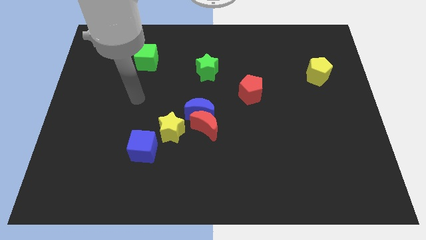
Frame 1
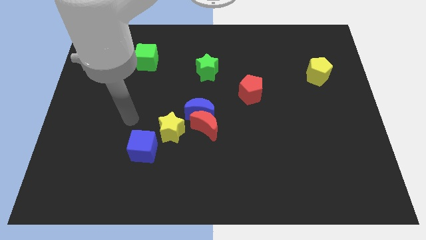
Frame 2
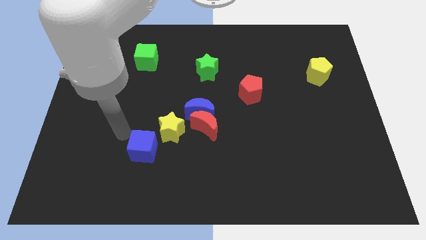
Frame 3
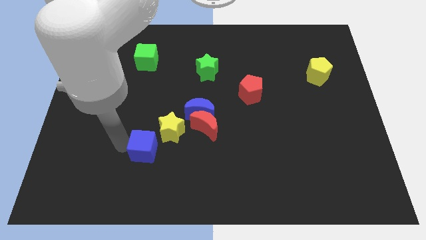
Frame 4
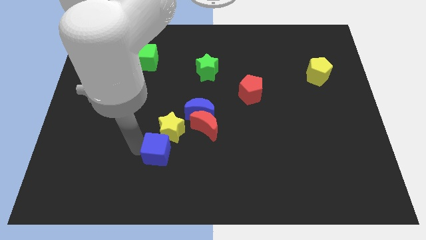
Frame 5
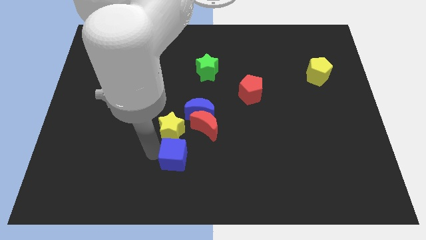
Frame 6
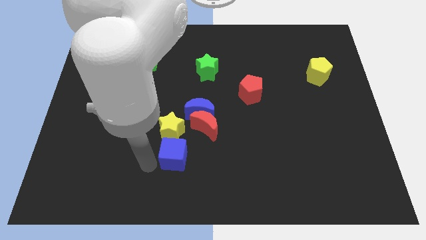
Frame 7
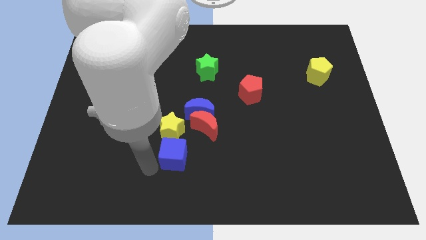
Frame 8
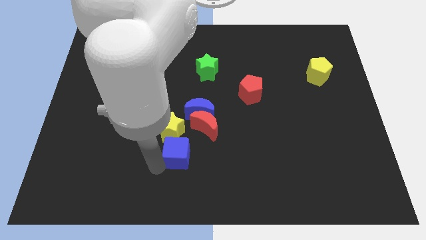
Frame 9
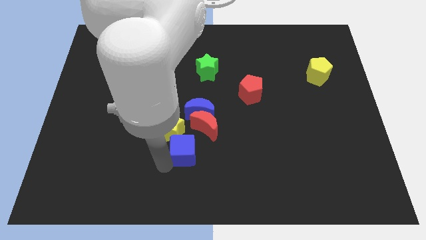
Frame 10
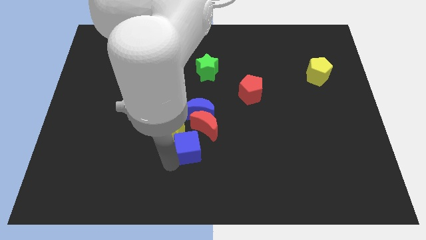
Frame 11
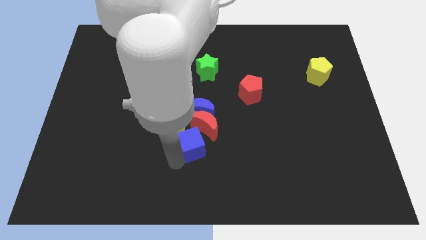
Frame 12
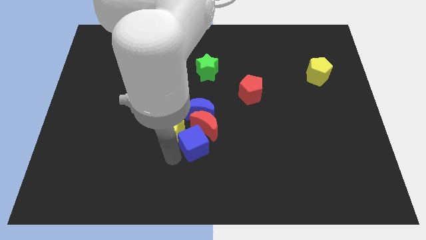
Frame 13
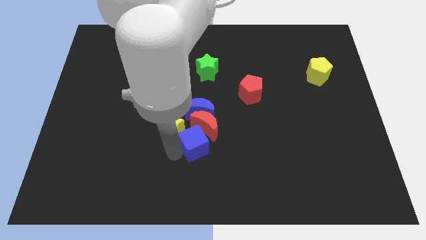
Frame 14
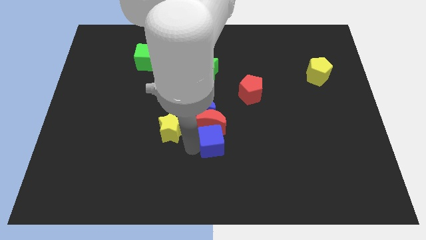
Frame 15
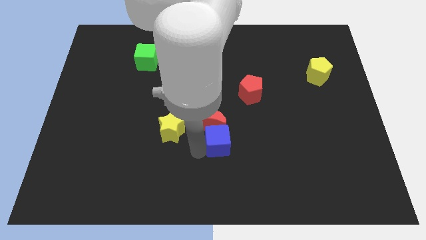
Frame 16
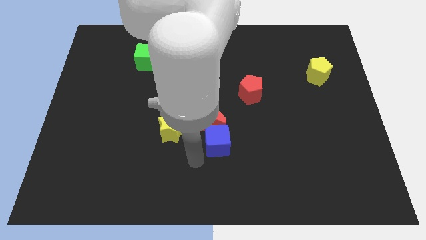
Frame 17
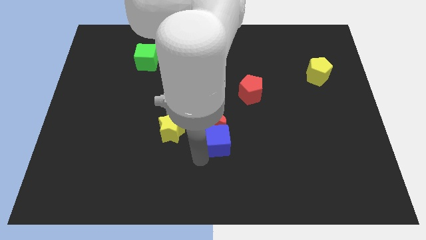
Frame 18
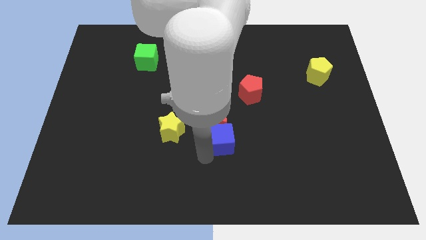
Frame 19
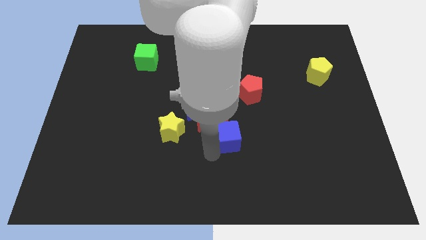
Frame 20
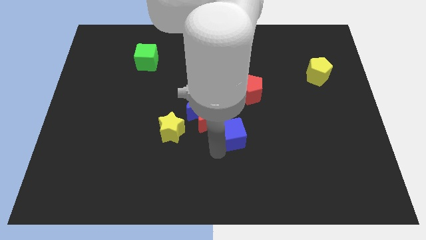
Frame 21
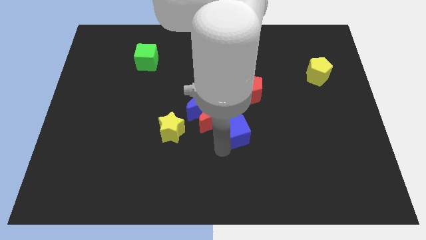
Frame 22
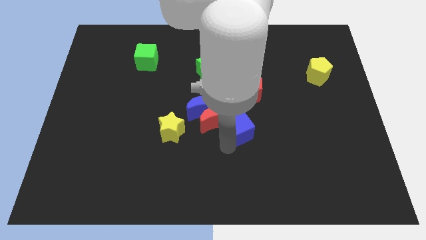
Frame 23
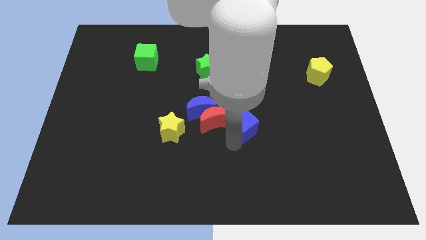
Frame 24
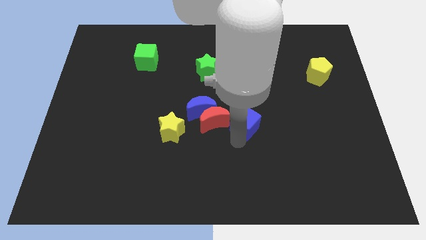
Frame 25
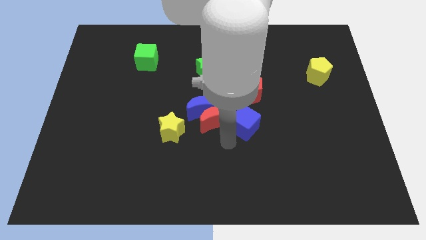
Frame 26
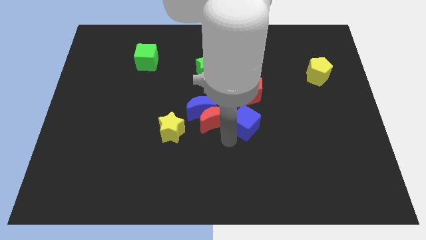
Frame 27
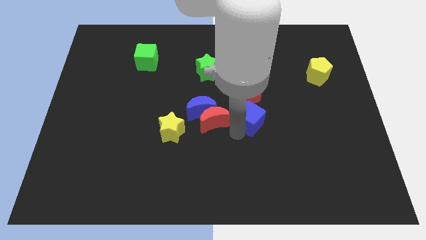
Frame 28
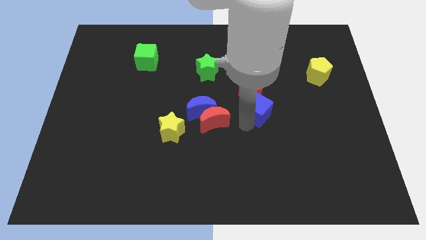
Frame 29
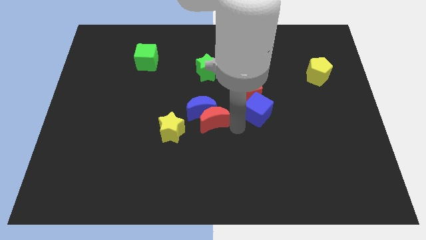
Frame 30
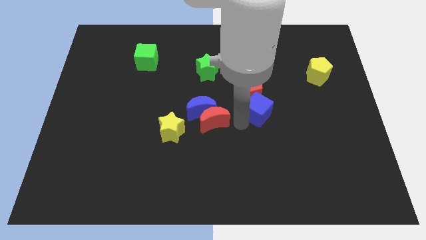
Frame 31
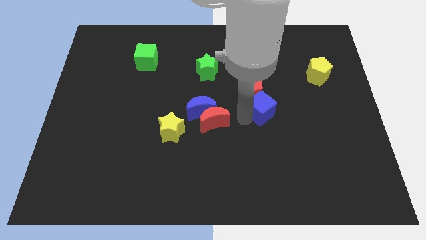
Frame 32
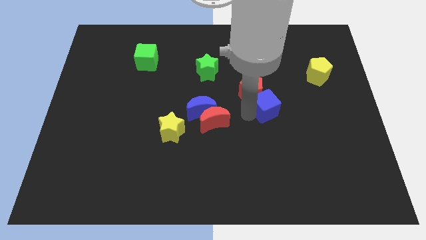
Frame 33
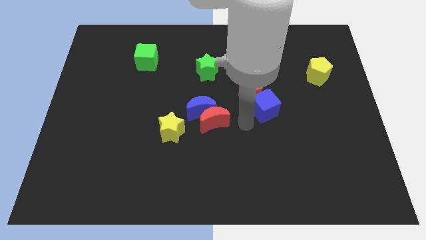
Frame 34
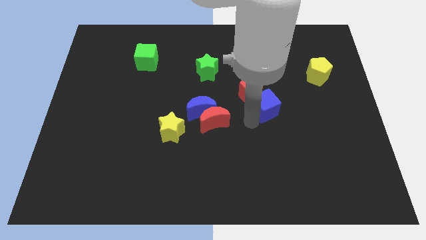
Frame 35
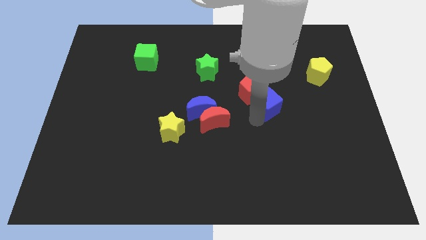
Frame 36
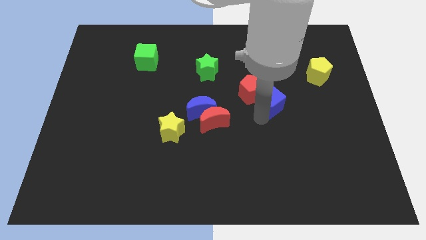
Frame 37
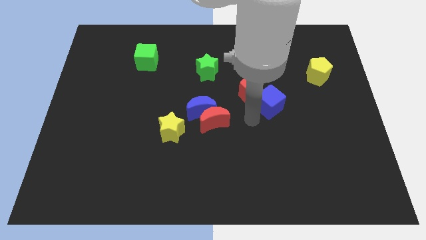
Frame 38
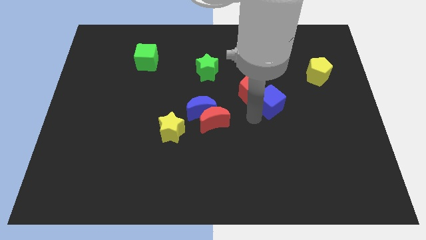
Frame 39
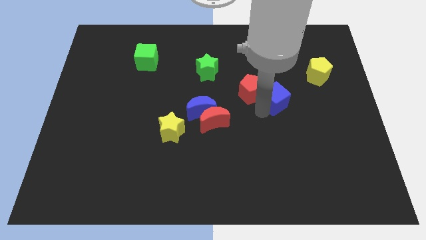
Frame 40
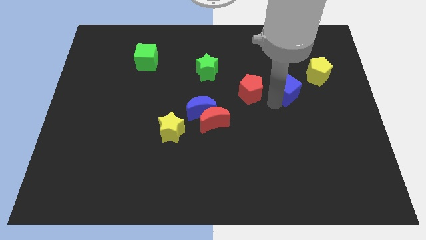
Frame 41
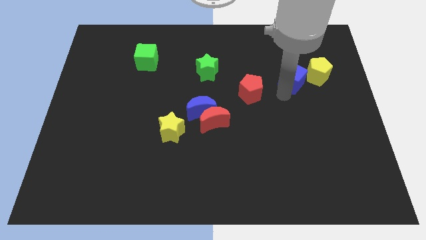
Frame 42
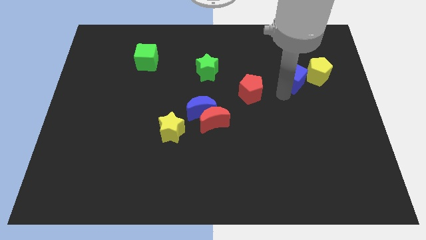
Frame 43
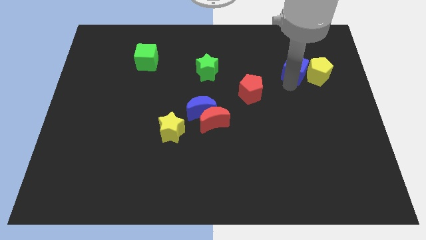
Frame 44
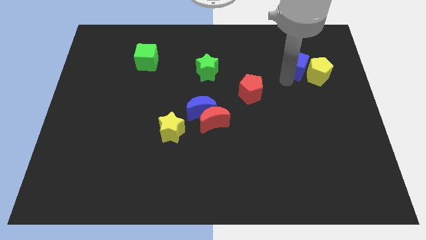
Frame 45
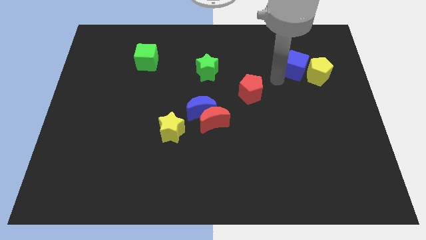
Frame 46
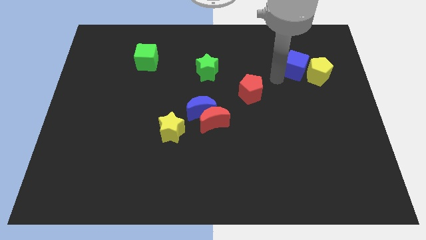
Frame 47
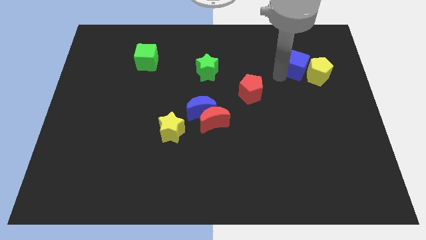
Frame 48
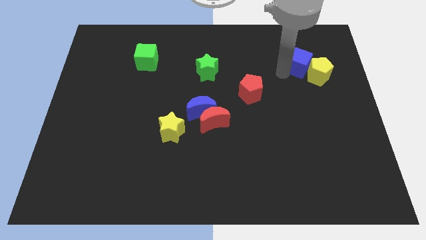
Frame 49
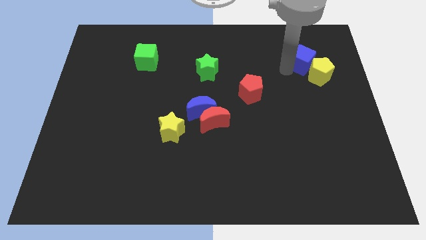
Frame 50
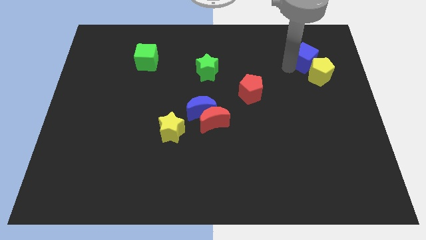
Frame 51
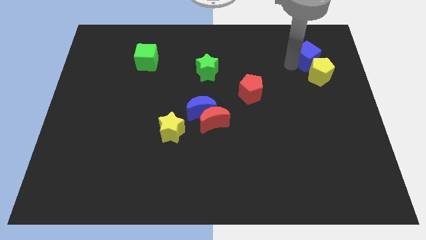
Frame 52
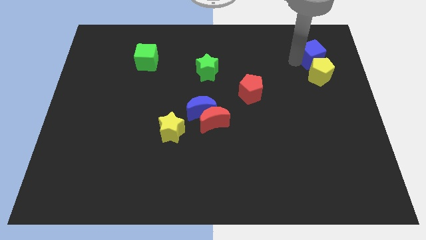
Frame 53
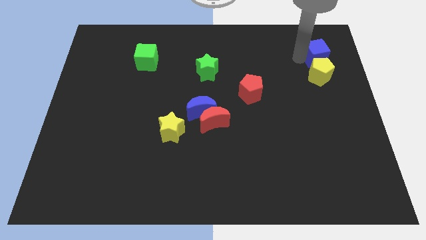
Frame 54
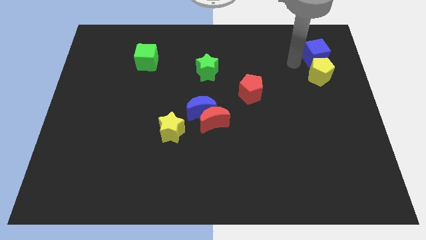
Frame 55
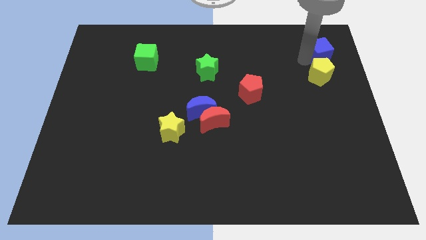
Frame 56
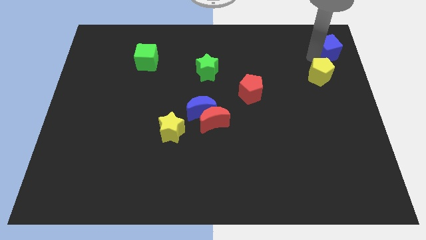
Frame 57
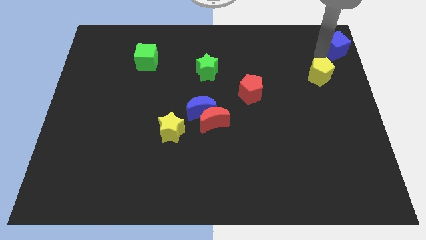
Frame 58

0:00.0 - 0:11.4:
move the blue cube to the top right

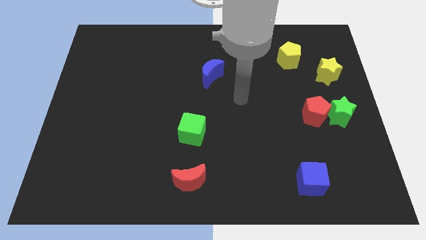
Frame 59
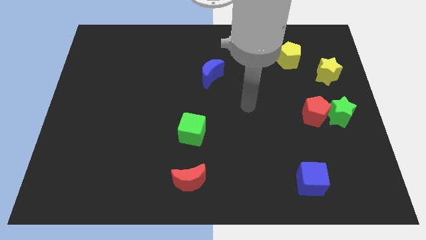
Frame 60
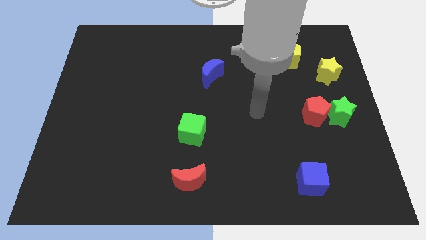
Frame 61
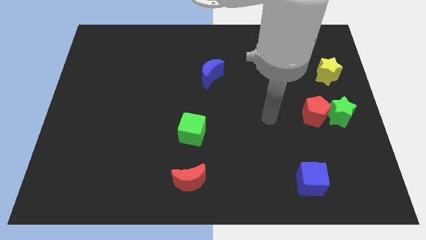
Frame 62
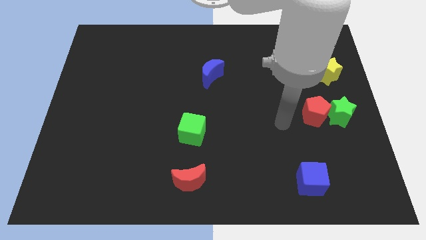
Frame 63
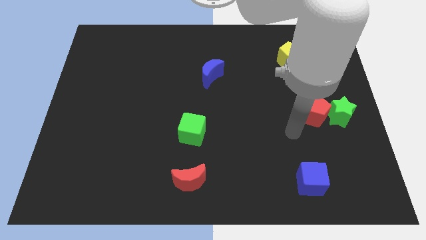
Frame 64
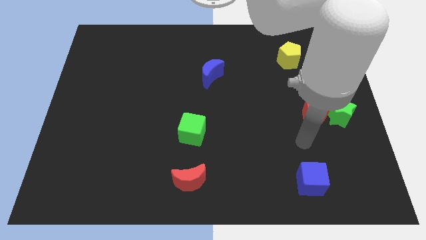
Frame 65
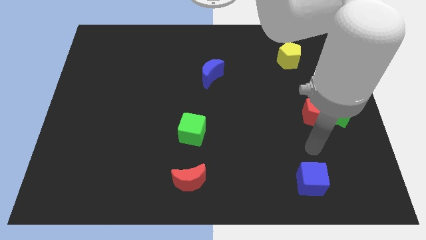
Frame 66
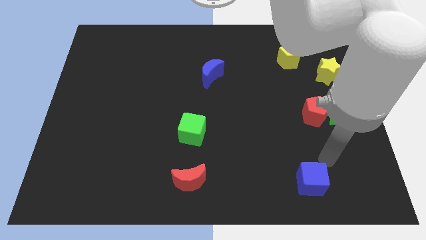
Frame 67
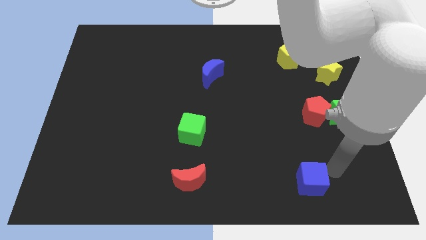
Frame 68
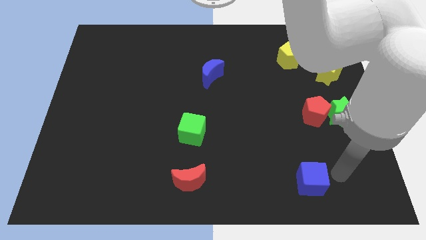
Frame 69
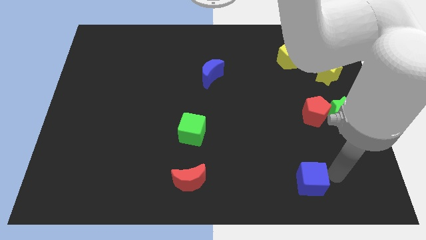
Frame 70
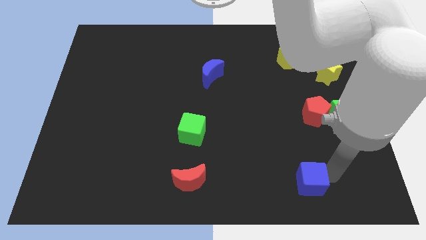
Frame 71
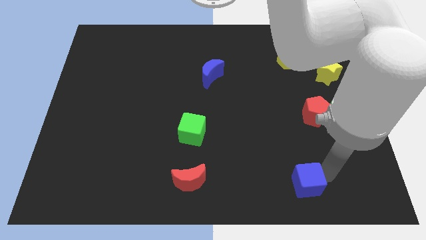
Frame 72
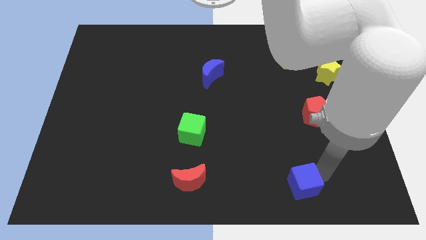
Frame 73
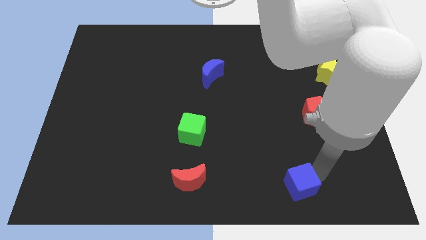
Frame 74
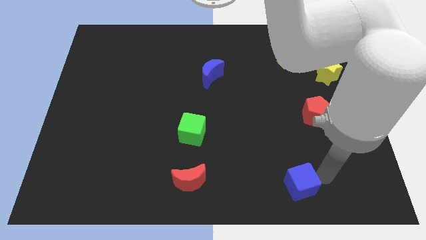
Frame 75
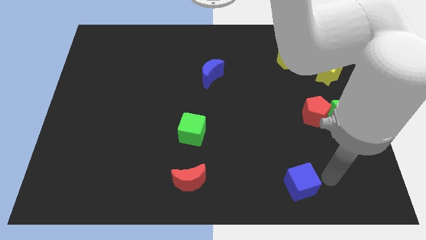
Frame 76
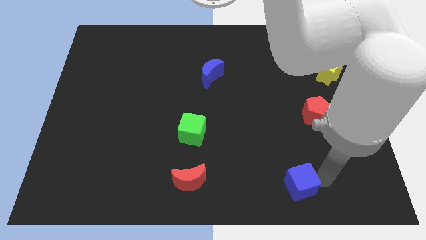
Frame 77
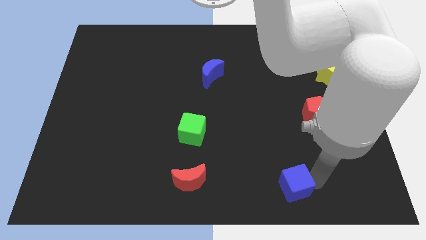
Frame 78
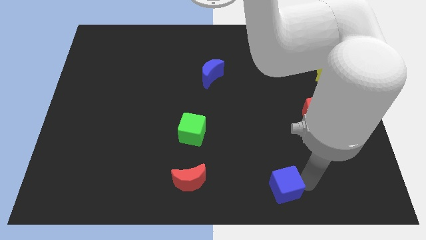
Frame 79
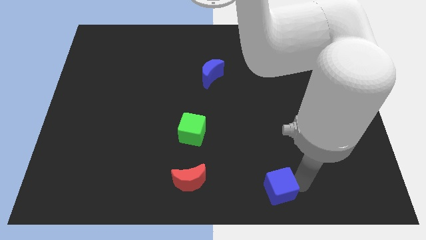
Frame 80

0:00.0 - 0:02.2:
put the blue cube to the bottom side
